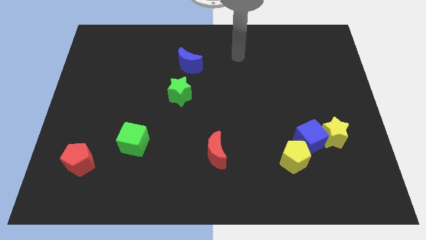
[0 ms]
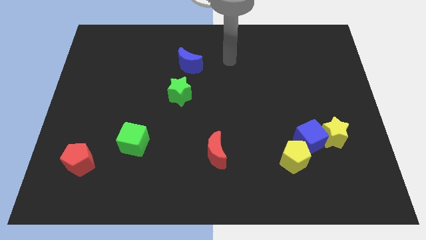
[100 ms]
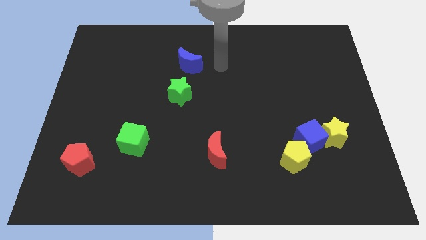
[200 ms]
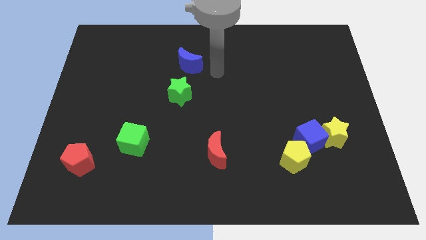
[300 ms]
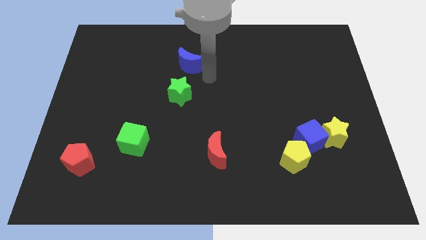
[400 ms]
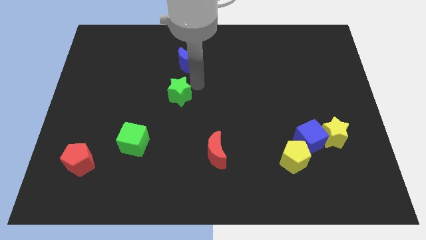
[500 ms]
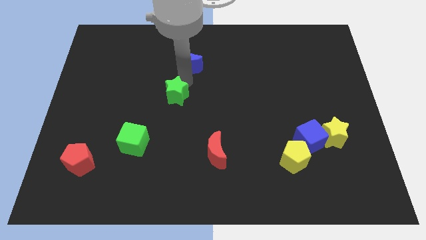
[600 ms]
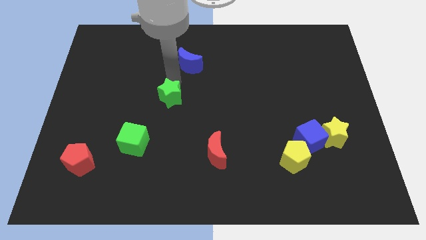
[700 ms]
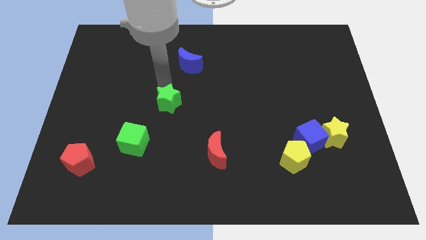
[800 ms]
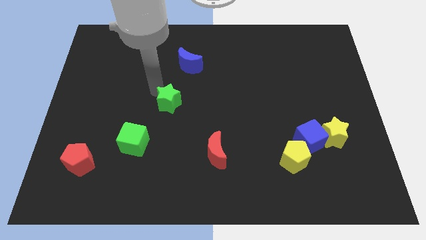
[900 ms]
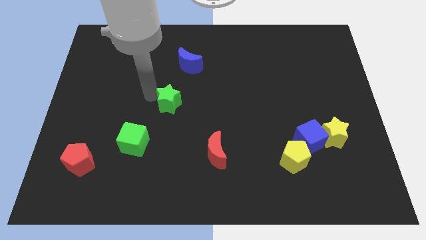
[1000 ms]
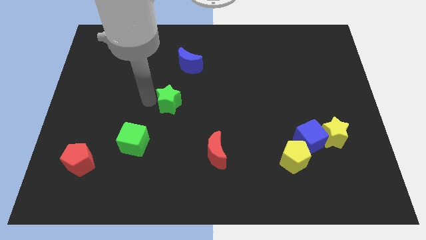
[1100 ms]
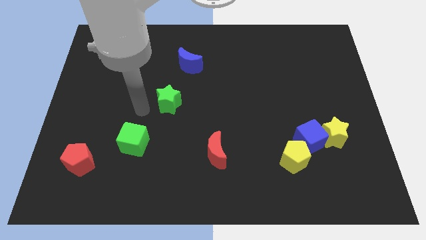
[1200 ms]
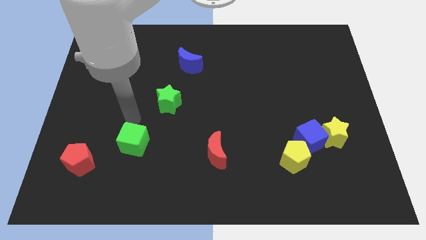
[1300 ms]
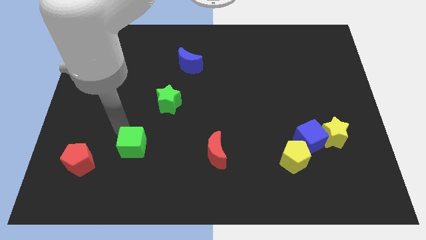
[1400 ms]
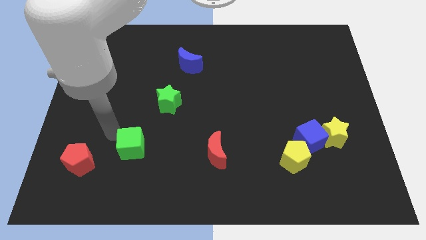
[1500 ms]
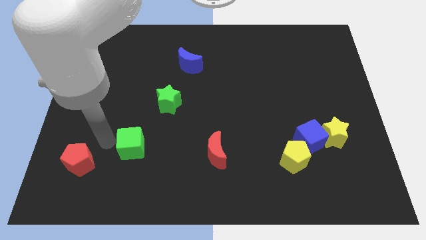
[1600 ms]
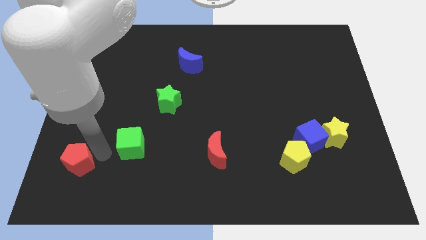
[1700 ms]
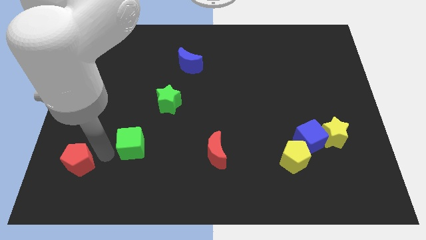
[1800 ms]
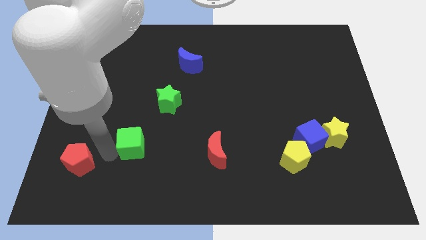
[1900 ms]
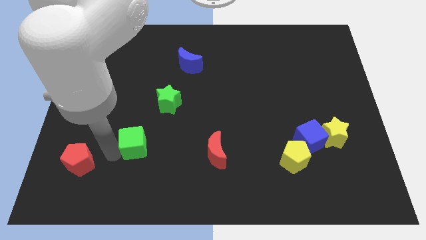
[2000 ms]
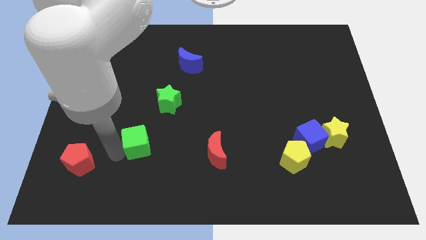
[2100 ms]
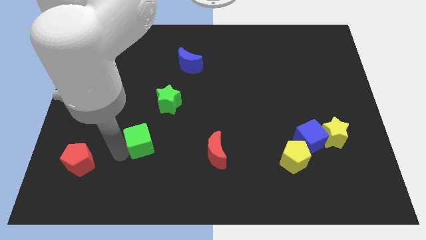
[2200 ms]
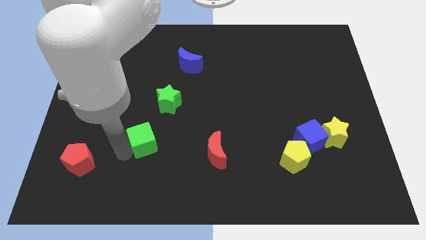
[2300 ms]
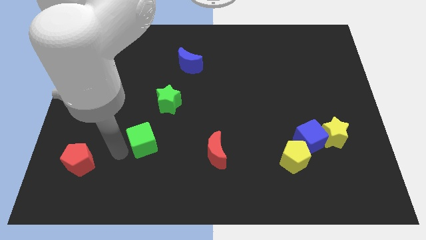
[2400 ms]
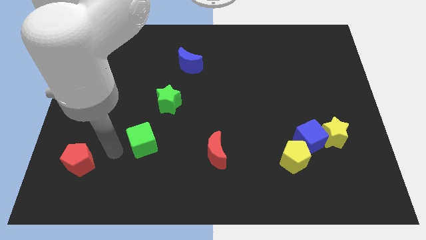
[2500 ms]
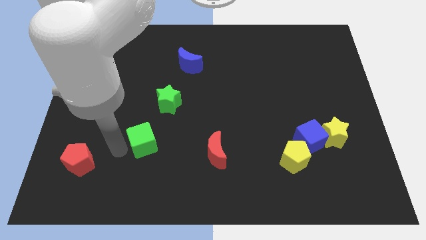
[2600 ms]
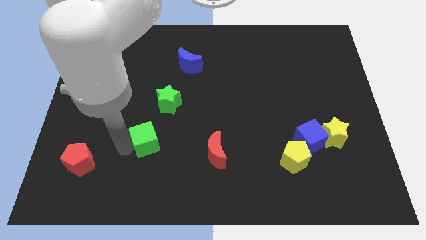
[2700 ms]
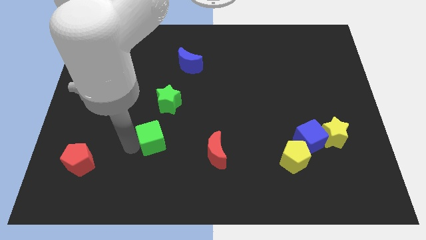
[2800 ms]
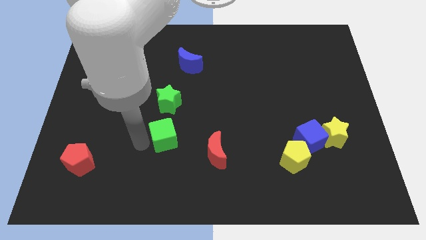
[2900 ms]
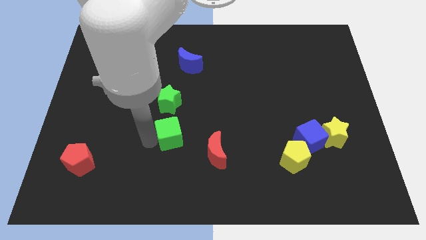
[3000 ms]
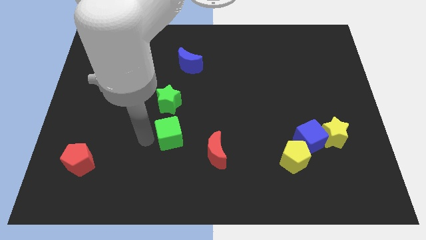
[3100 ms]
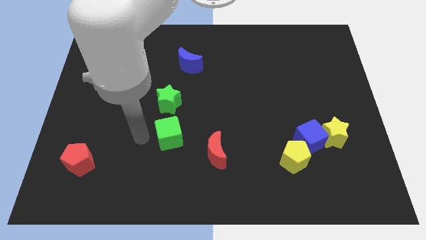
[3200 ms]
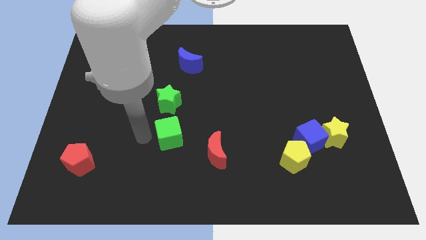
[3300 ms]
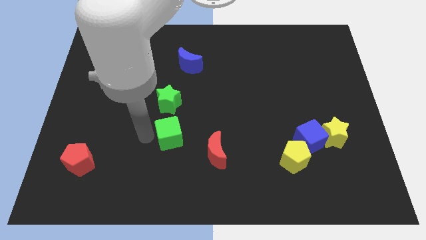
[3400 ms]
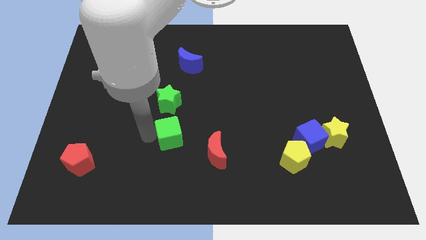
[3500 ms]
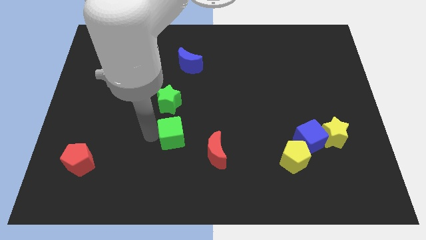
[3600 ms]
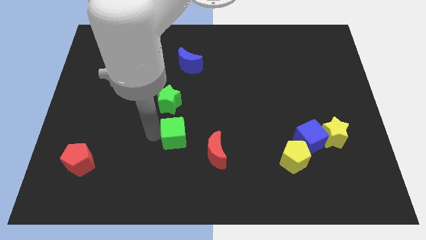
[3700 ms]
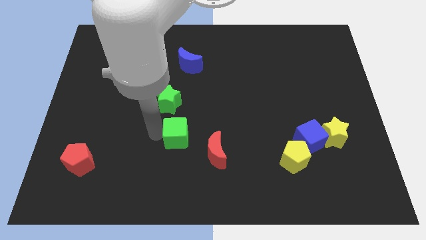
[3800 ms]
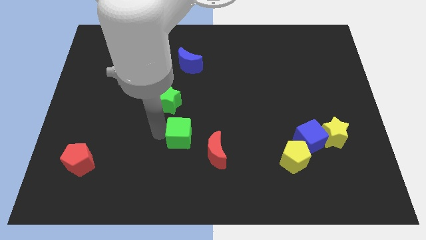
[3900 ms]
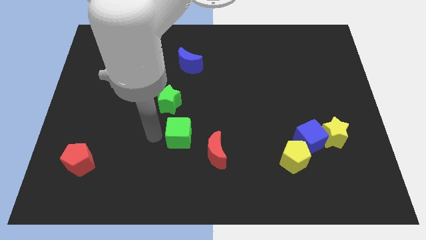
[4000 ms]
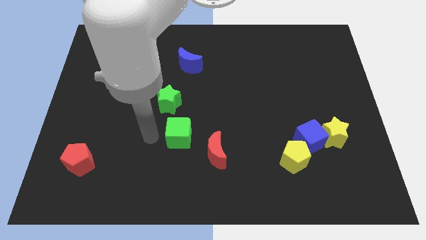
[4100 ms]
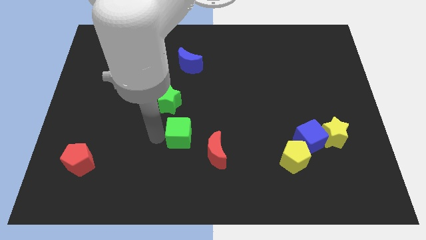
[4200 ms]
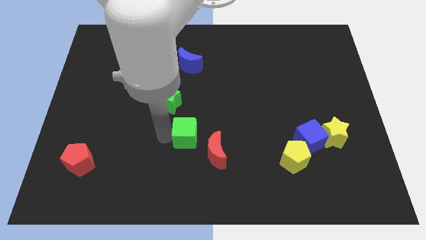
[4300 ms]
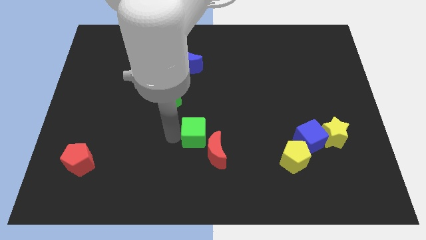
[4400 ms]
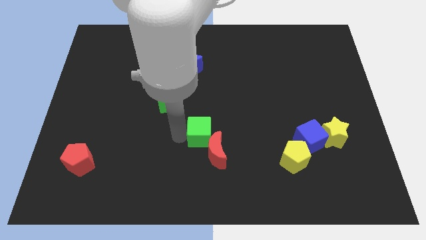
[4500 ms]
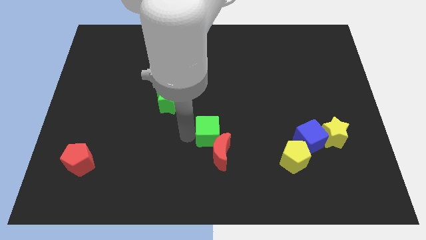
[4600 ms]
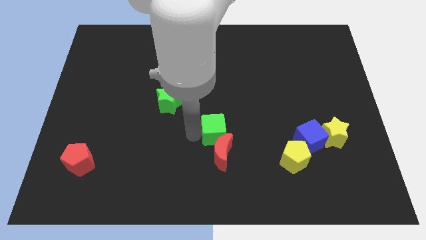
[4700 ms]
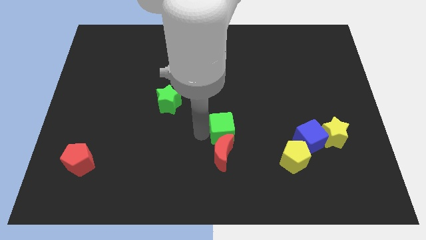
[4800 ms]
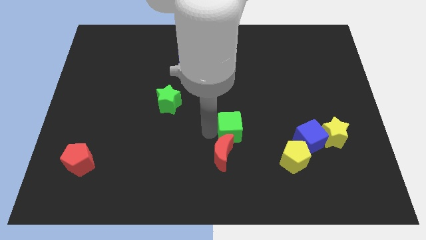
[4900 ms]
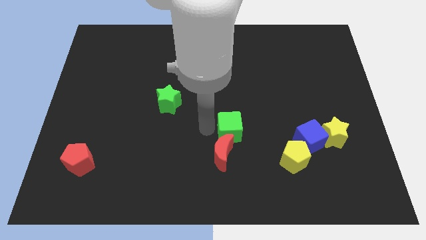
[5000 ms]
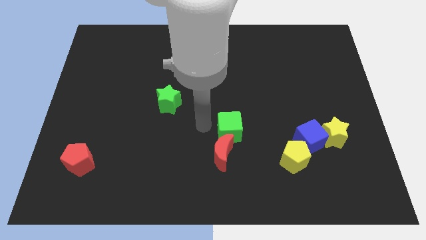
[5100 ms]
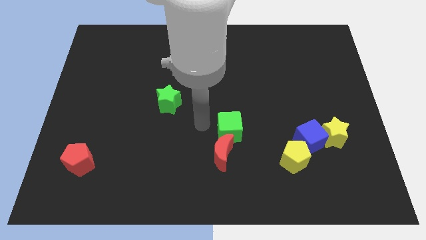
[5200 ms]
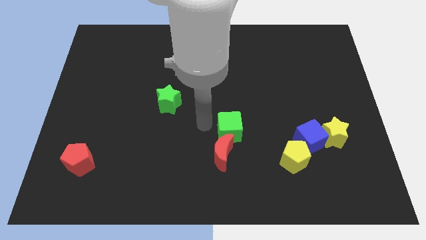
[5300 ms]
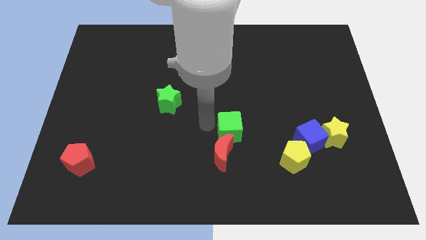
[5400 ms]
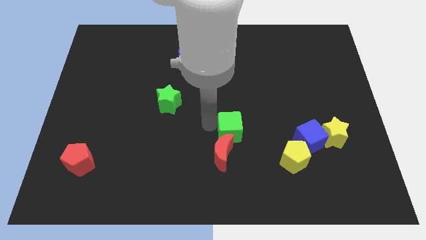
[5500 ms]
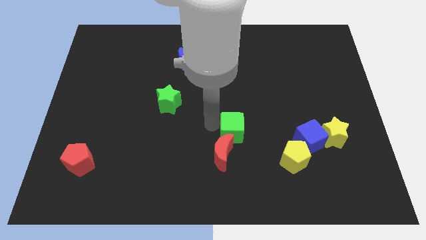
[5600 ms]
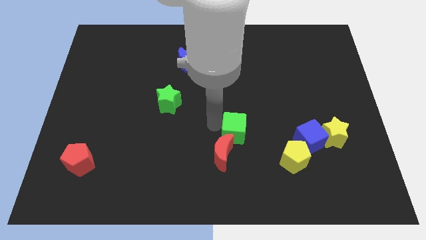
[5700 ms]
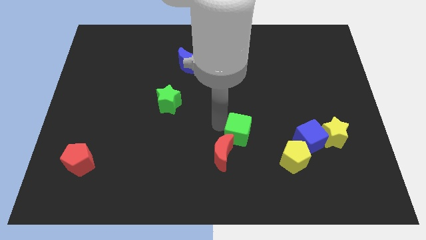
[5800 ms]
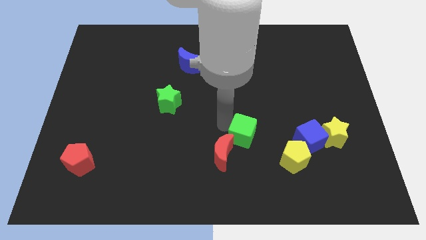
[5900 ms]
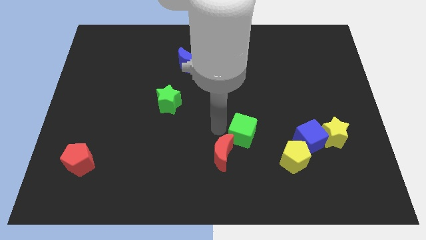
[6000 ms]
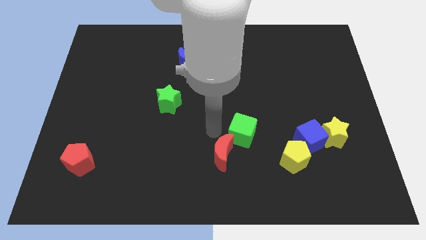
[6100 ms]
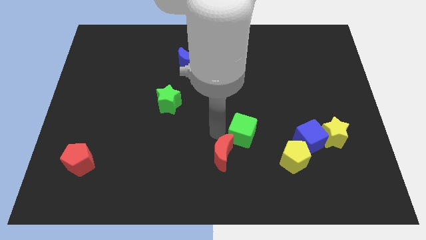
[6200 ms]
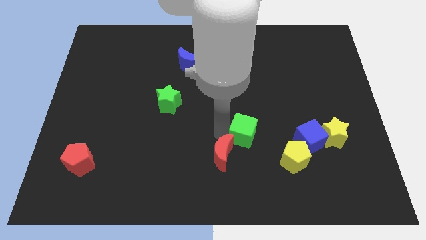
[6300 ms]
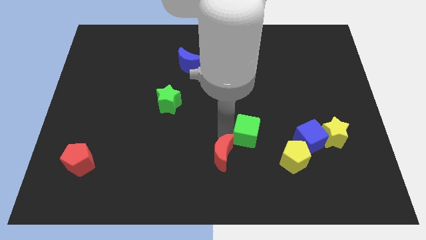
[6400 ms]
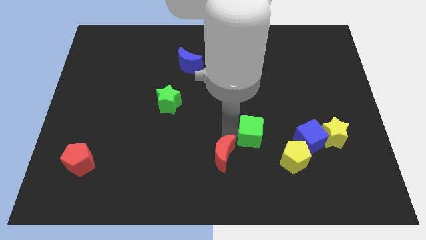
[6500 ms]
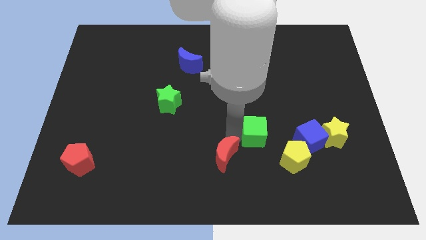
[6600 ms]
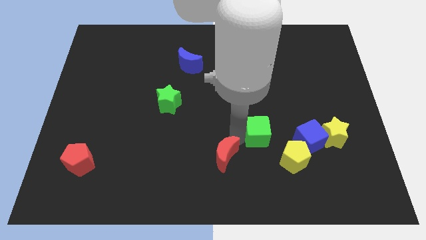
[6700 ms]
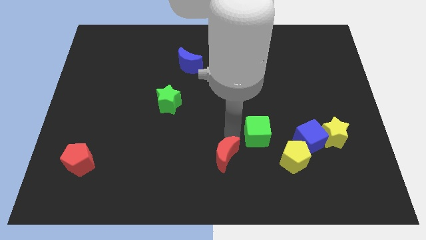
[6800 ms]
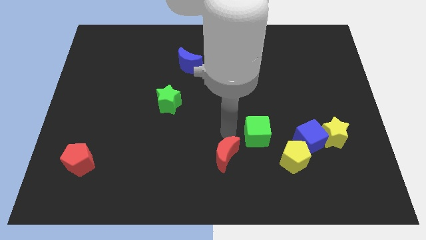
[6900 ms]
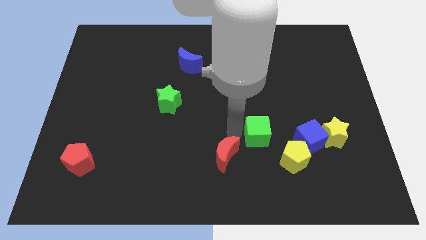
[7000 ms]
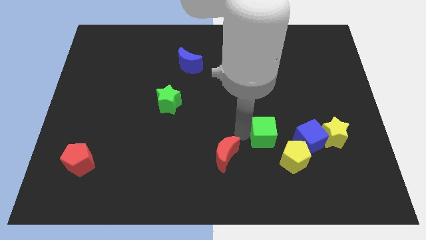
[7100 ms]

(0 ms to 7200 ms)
slide the green cube to the left of the yellow star
